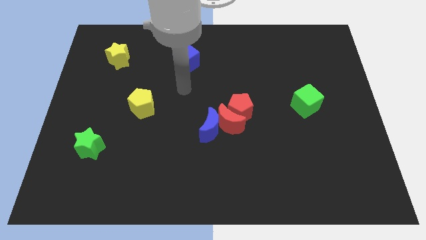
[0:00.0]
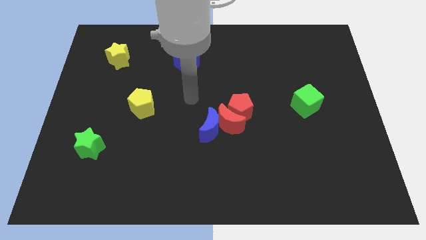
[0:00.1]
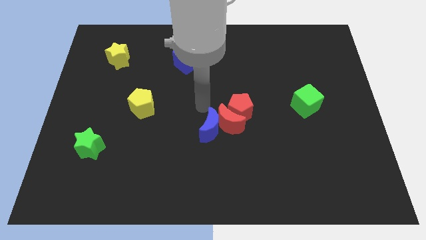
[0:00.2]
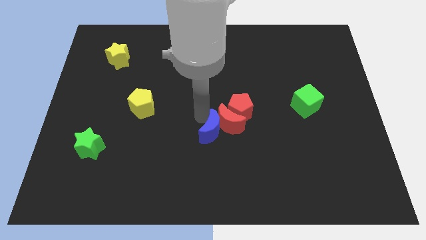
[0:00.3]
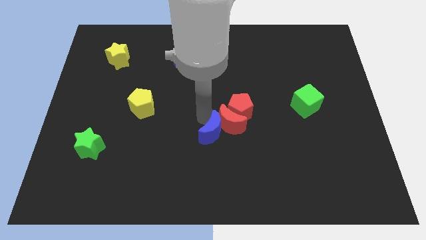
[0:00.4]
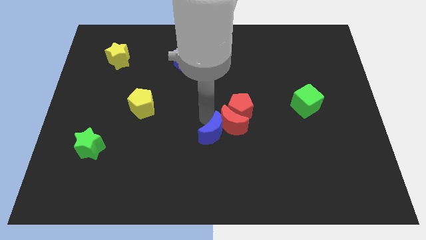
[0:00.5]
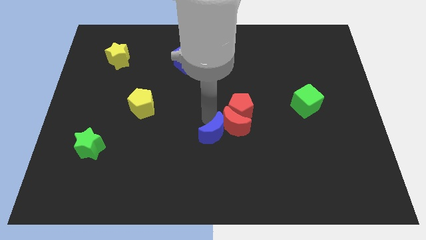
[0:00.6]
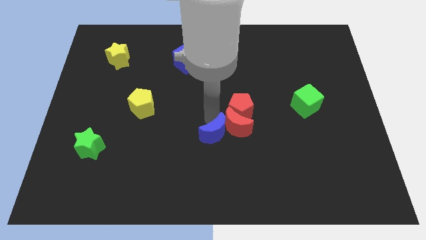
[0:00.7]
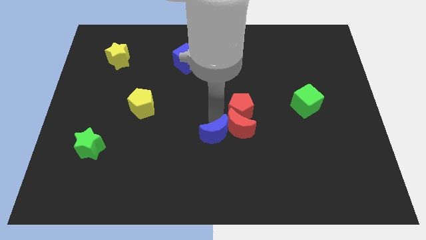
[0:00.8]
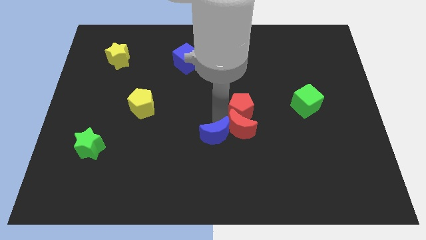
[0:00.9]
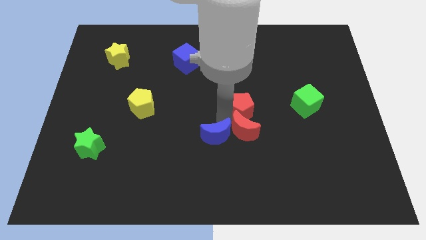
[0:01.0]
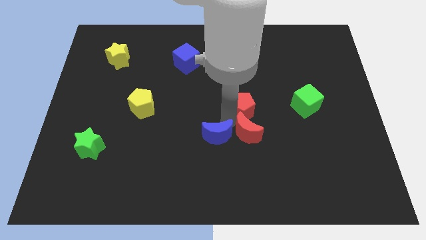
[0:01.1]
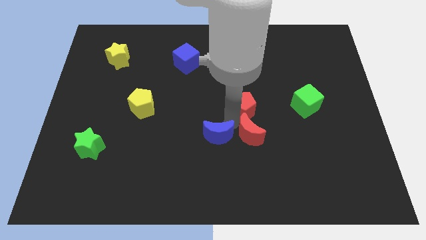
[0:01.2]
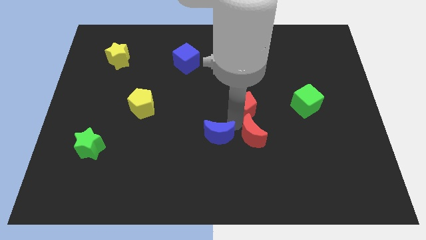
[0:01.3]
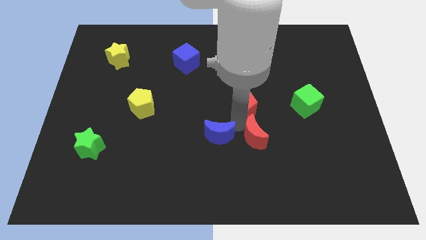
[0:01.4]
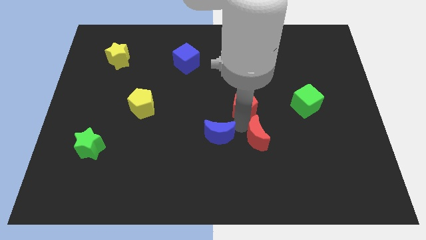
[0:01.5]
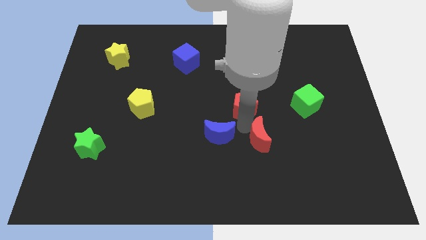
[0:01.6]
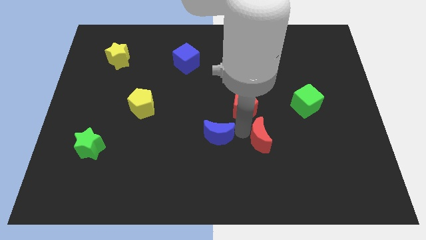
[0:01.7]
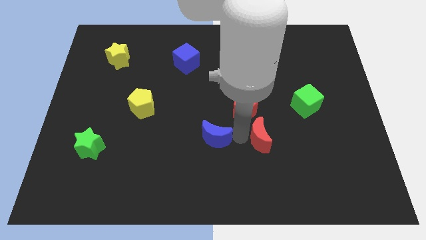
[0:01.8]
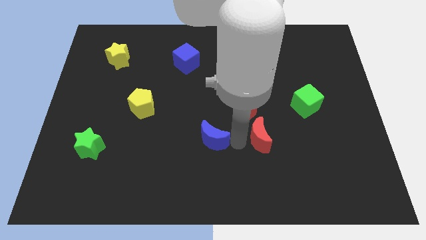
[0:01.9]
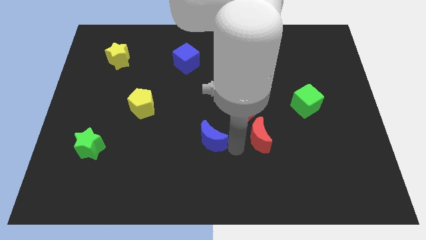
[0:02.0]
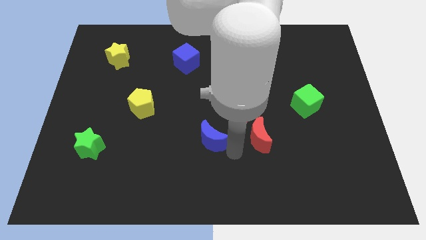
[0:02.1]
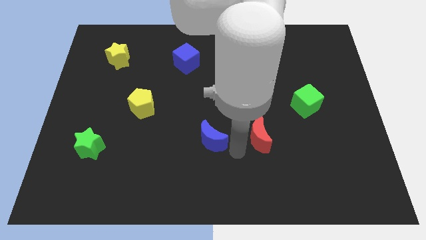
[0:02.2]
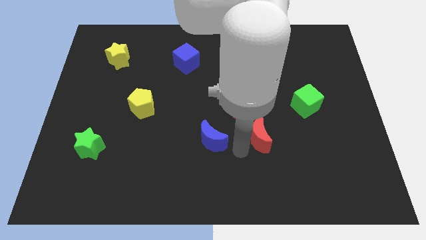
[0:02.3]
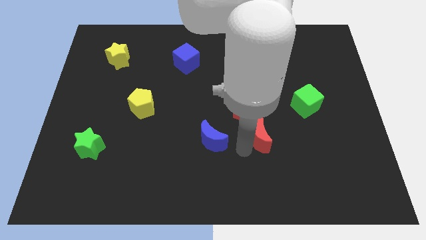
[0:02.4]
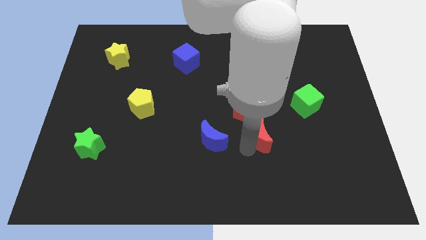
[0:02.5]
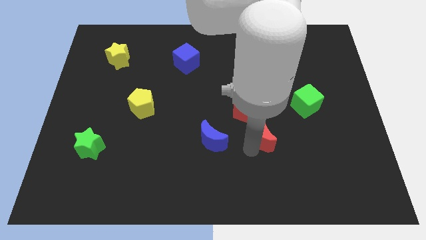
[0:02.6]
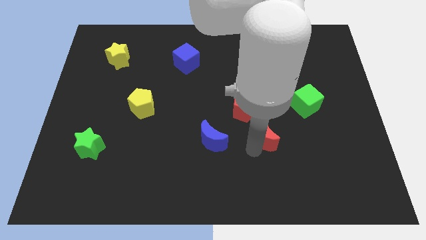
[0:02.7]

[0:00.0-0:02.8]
move the red moon a bit to the right

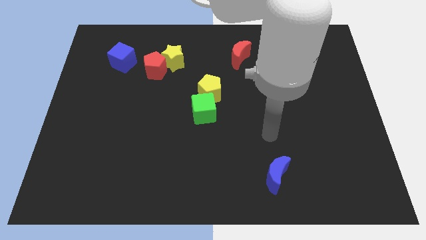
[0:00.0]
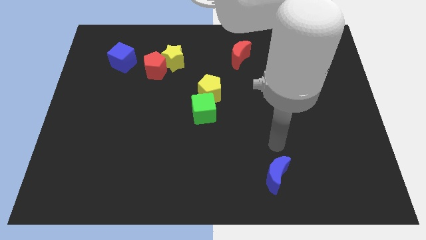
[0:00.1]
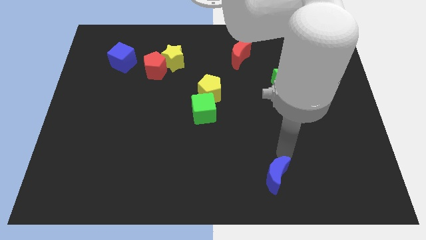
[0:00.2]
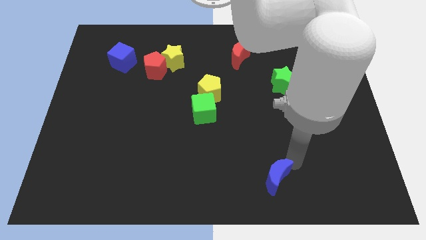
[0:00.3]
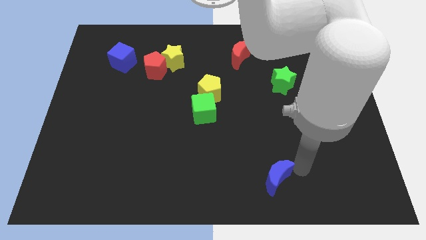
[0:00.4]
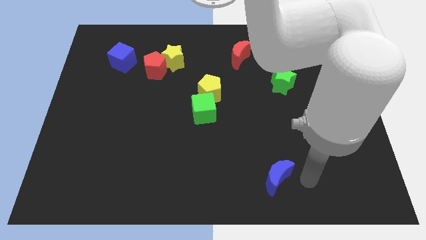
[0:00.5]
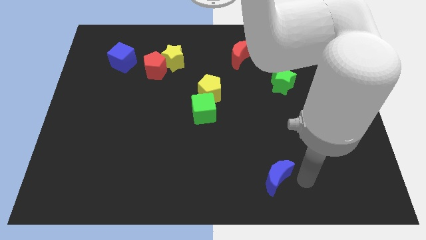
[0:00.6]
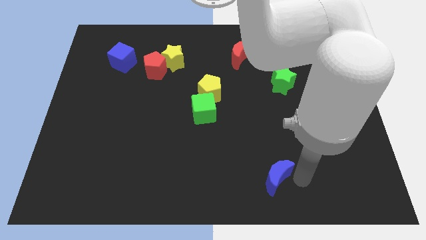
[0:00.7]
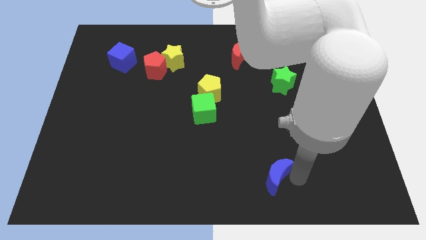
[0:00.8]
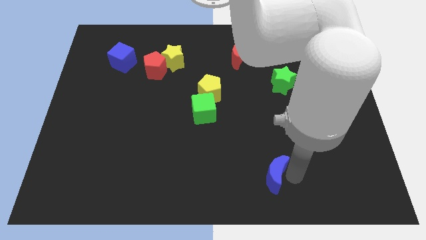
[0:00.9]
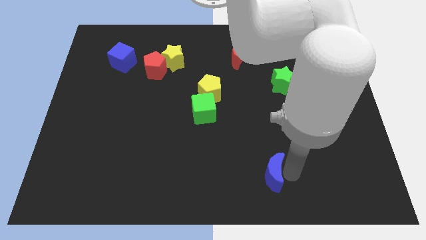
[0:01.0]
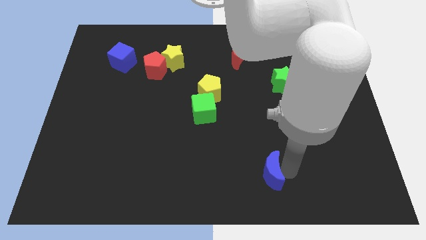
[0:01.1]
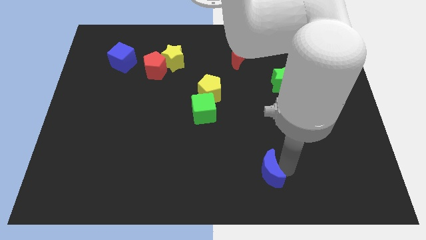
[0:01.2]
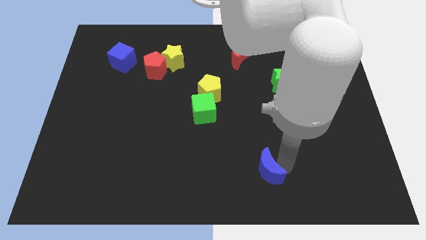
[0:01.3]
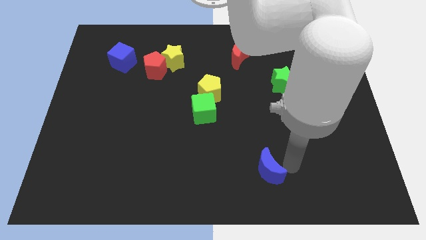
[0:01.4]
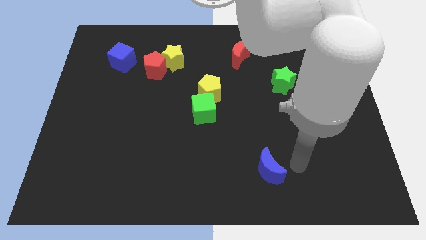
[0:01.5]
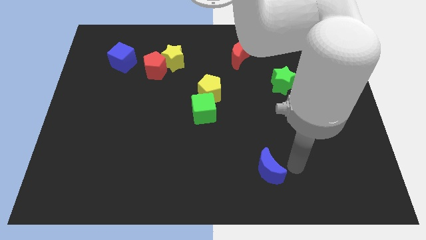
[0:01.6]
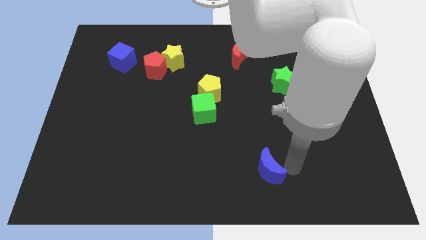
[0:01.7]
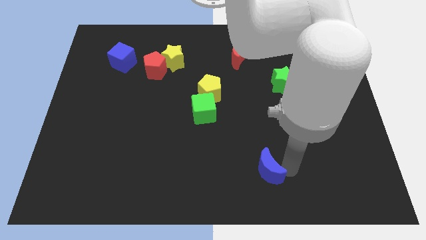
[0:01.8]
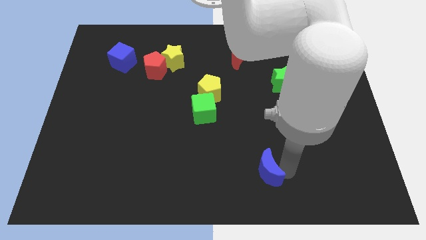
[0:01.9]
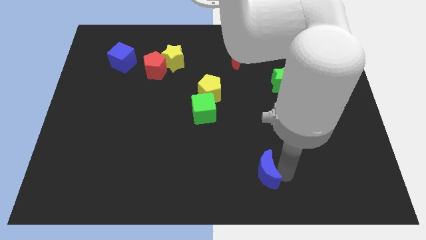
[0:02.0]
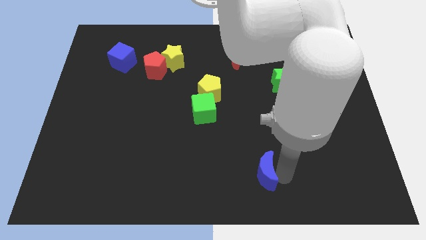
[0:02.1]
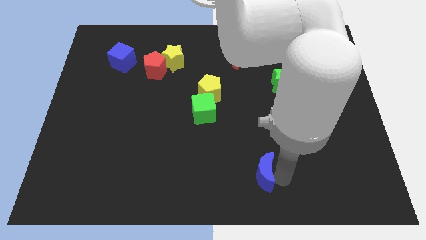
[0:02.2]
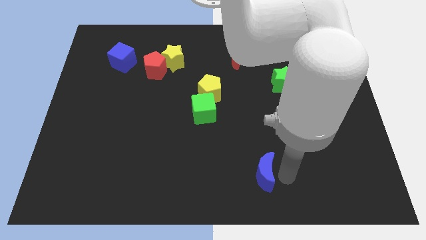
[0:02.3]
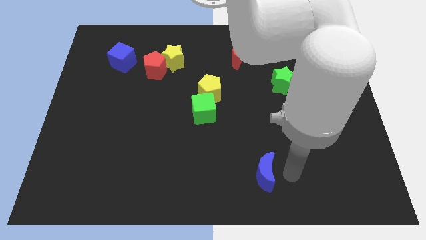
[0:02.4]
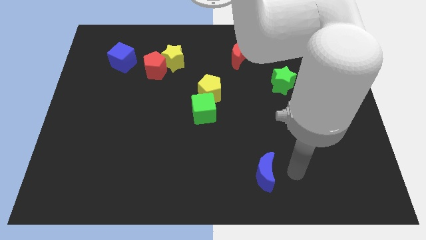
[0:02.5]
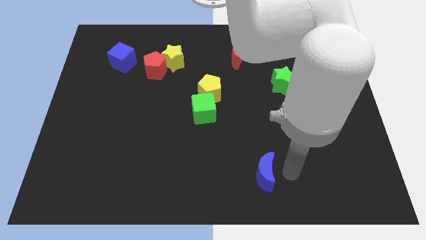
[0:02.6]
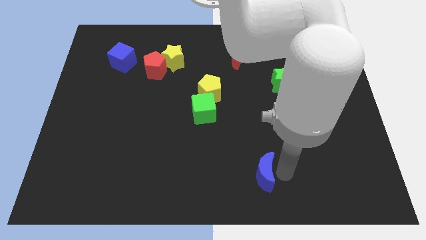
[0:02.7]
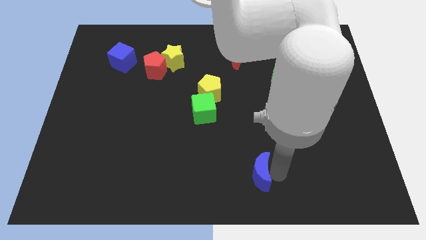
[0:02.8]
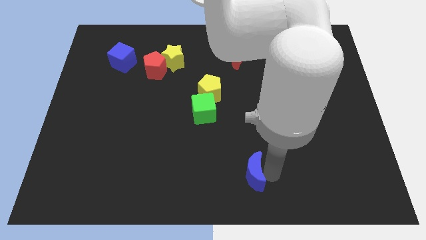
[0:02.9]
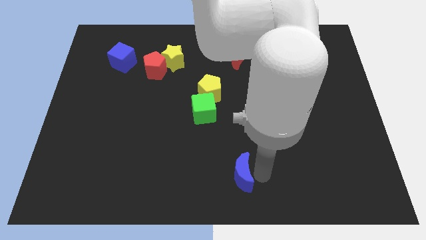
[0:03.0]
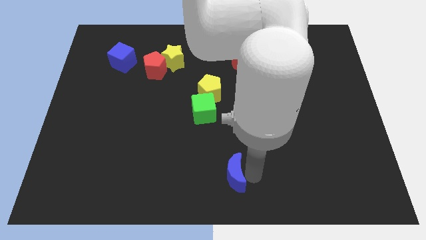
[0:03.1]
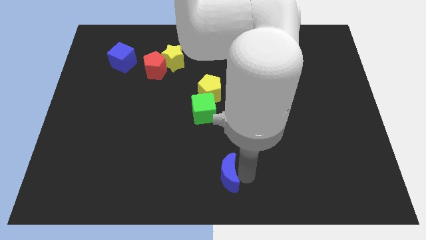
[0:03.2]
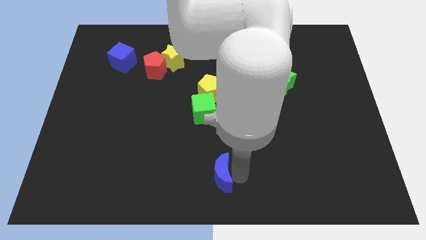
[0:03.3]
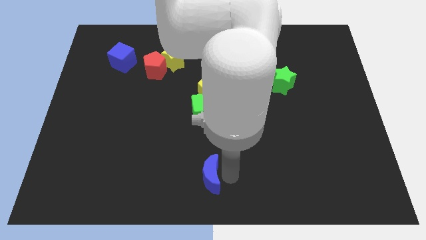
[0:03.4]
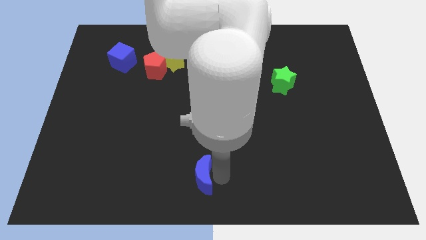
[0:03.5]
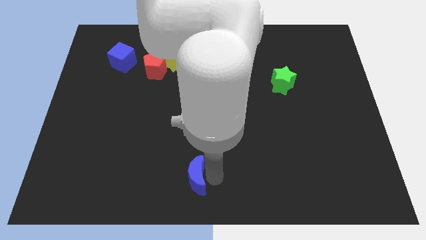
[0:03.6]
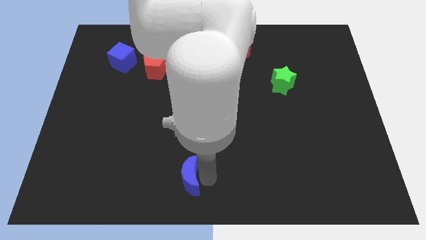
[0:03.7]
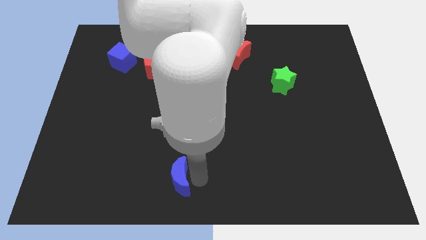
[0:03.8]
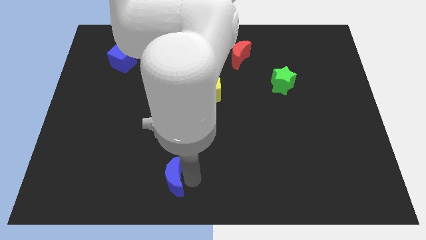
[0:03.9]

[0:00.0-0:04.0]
move the blue moon left

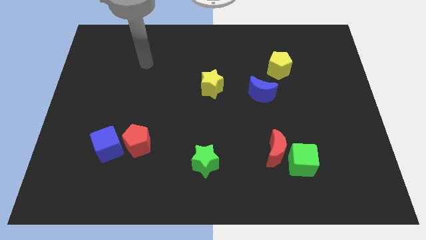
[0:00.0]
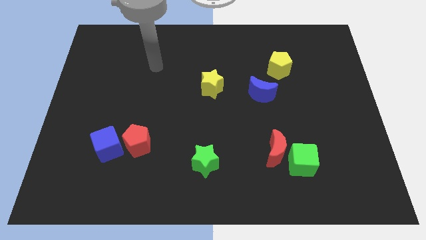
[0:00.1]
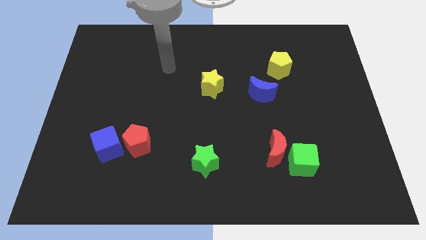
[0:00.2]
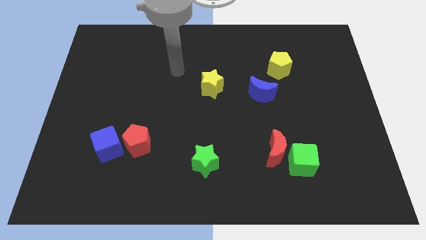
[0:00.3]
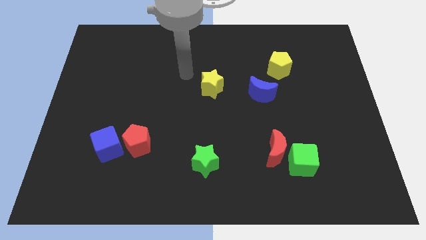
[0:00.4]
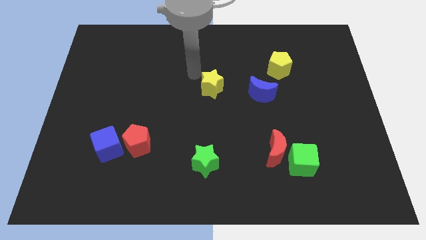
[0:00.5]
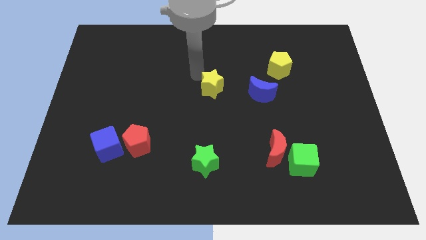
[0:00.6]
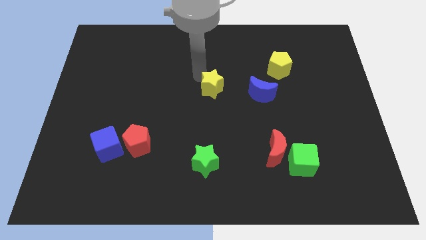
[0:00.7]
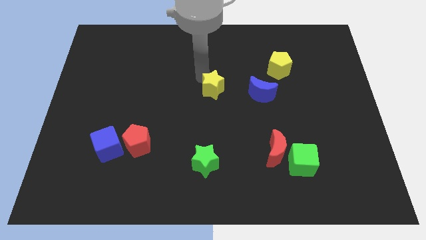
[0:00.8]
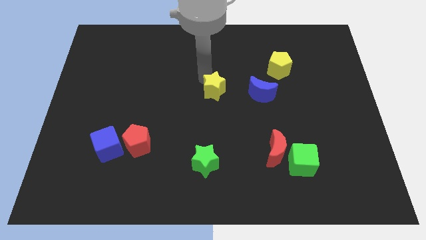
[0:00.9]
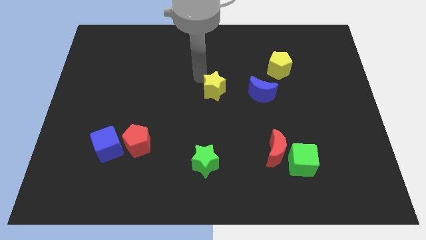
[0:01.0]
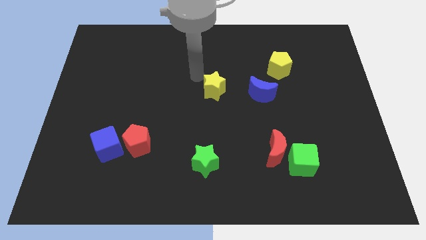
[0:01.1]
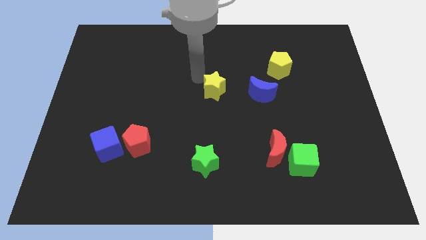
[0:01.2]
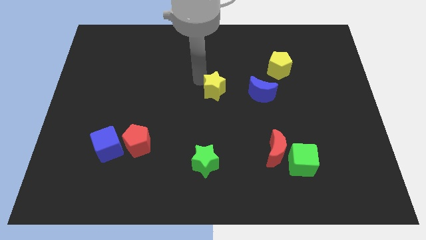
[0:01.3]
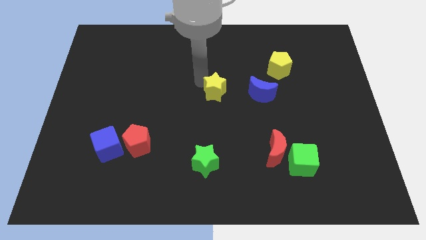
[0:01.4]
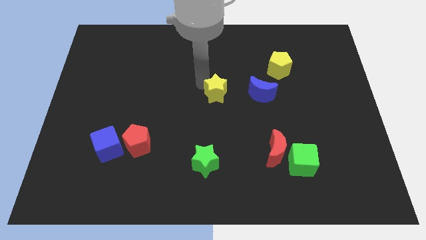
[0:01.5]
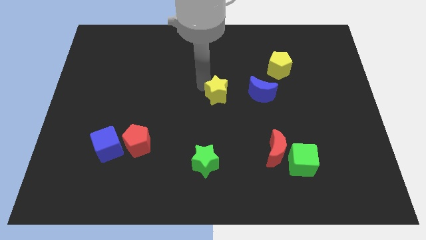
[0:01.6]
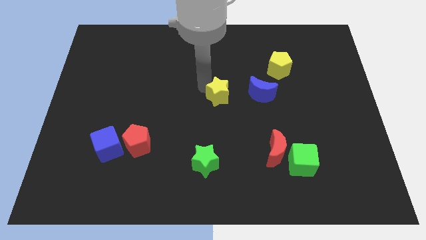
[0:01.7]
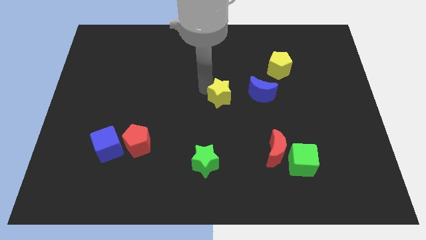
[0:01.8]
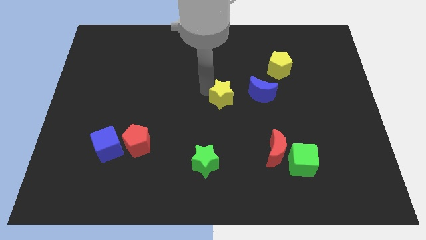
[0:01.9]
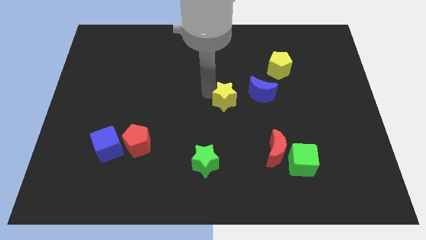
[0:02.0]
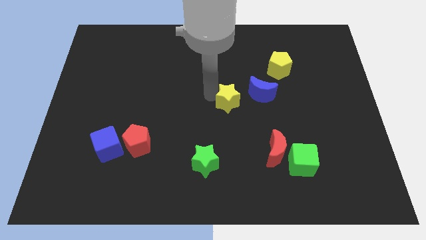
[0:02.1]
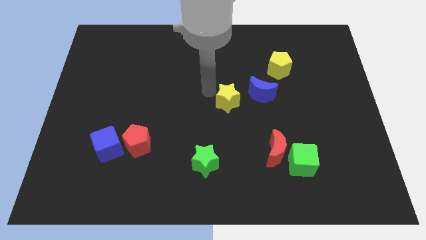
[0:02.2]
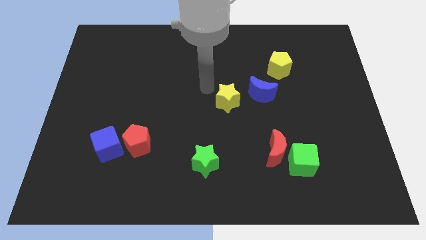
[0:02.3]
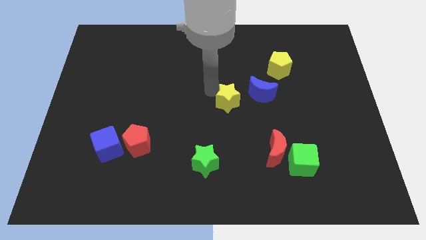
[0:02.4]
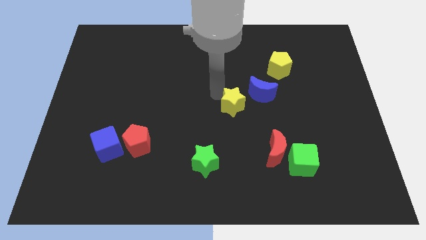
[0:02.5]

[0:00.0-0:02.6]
slightly move the yellow star diagonally downwards and to the right
